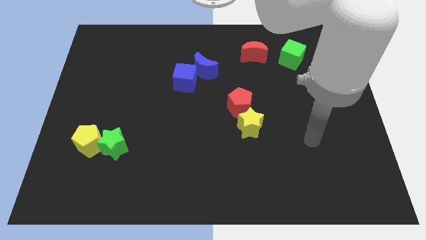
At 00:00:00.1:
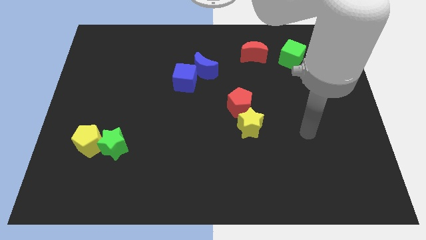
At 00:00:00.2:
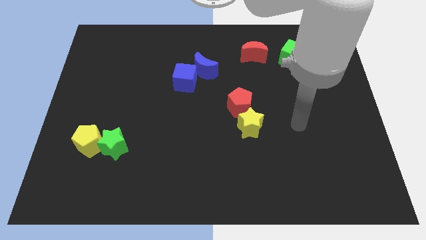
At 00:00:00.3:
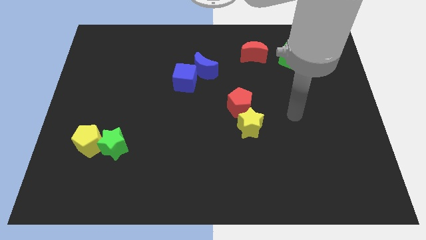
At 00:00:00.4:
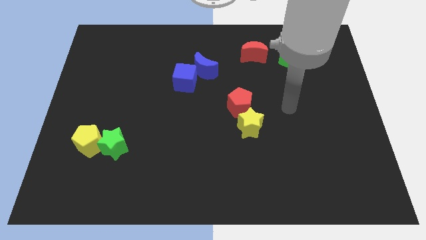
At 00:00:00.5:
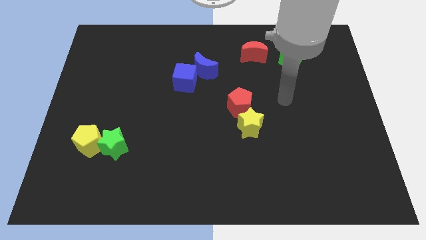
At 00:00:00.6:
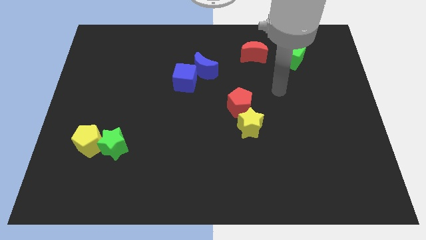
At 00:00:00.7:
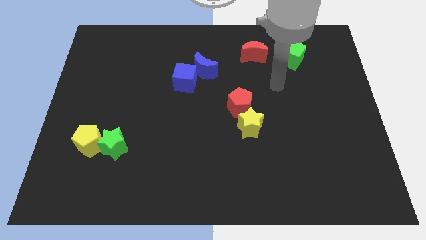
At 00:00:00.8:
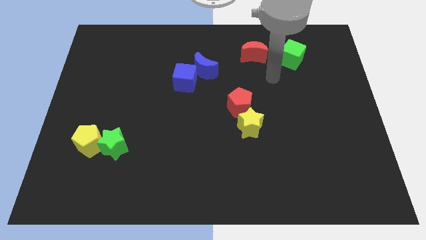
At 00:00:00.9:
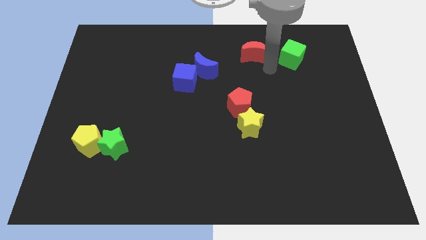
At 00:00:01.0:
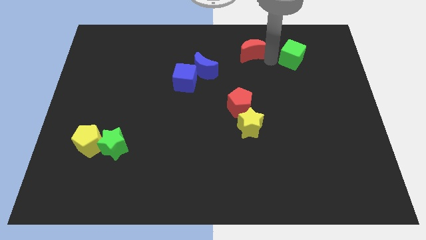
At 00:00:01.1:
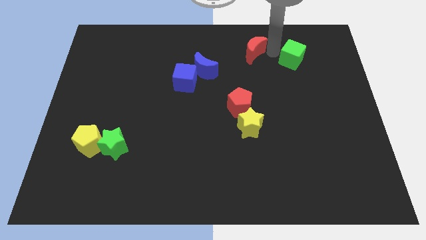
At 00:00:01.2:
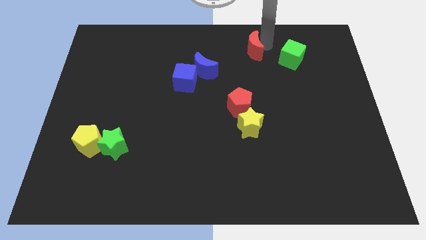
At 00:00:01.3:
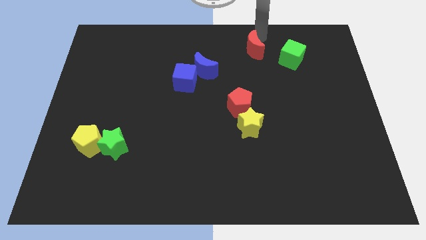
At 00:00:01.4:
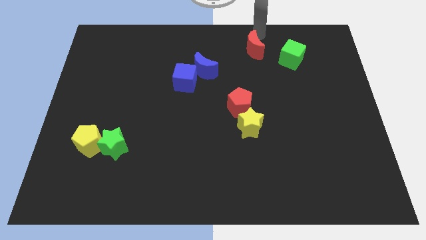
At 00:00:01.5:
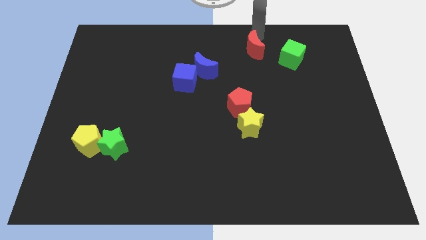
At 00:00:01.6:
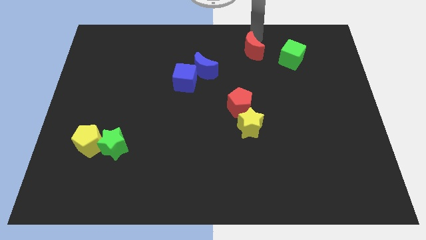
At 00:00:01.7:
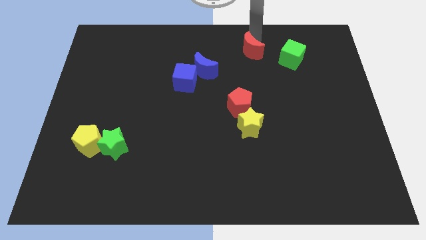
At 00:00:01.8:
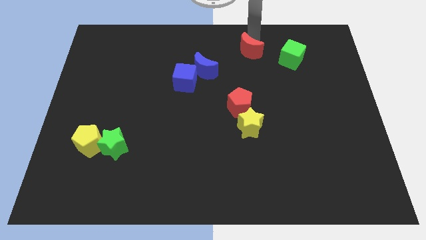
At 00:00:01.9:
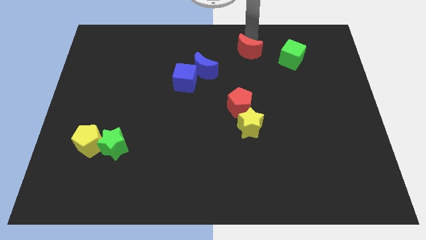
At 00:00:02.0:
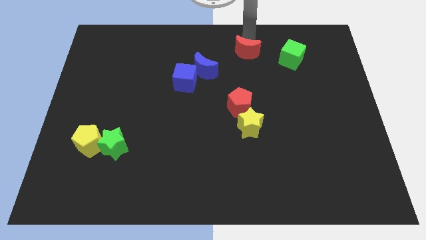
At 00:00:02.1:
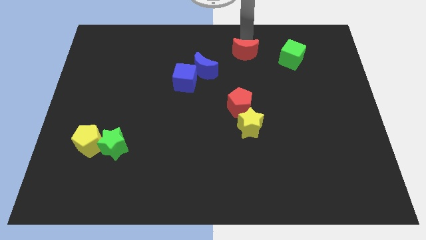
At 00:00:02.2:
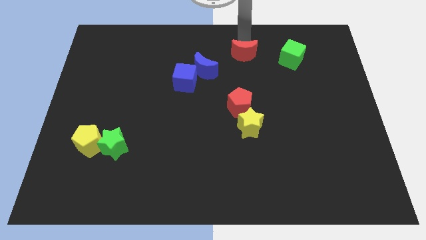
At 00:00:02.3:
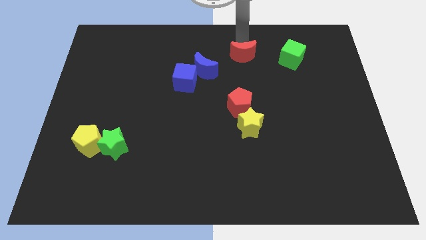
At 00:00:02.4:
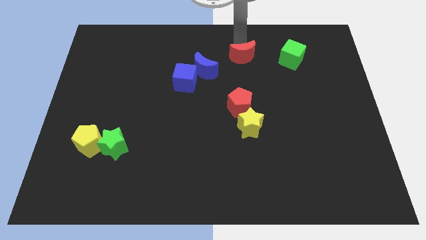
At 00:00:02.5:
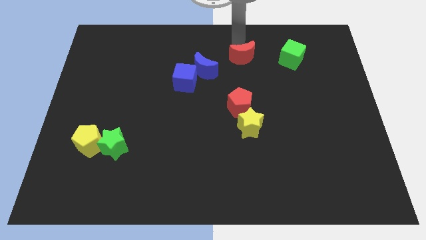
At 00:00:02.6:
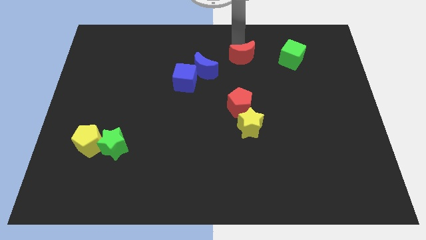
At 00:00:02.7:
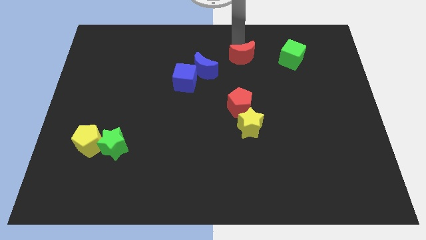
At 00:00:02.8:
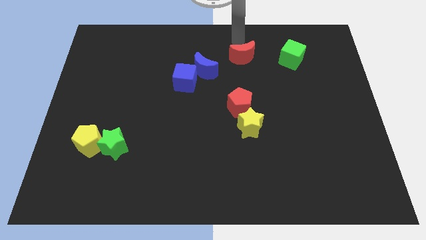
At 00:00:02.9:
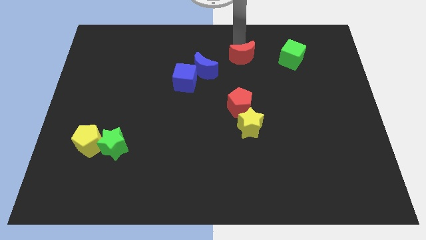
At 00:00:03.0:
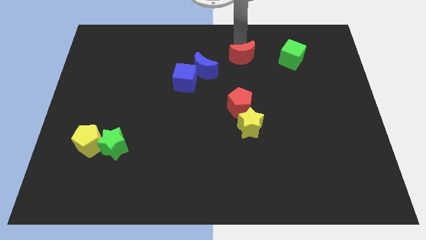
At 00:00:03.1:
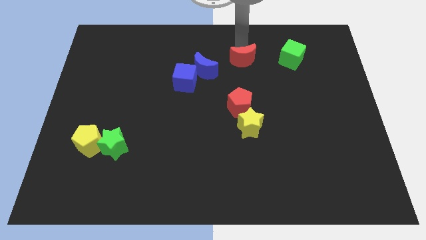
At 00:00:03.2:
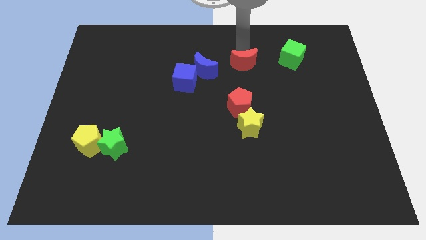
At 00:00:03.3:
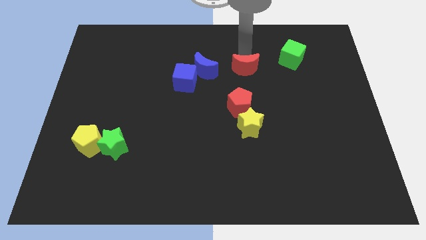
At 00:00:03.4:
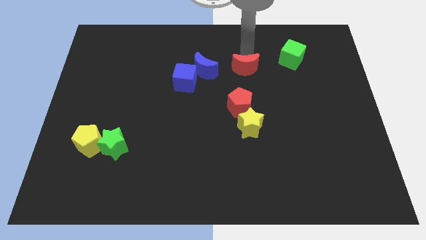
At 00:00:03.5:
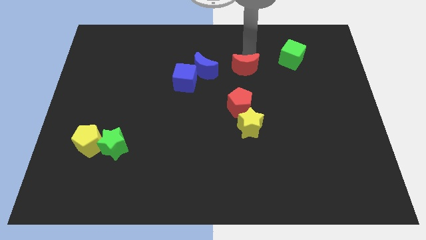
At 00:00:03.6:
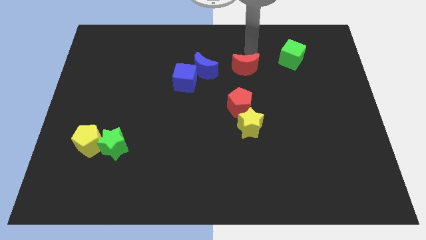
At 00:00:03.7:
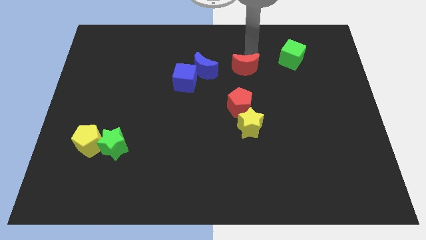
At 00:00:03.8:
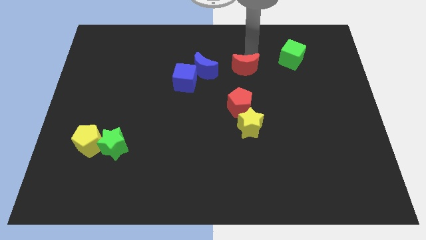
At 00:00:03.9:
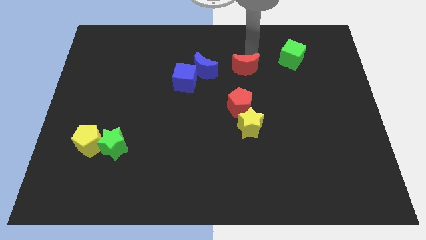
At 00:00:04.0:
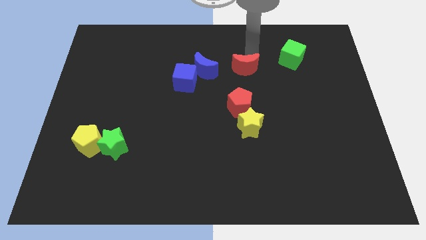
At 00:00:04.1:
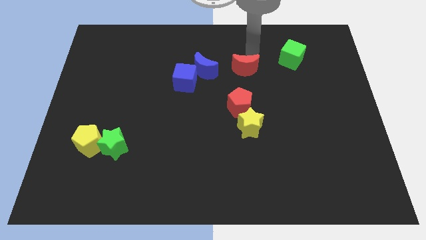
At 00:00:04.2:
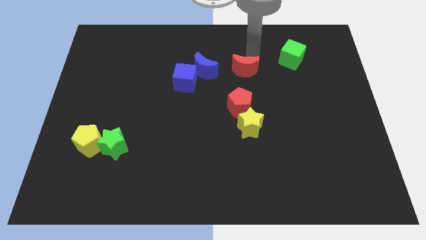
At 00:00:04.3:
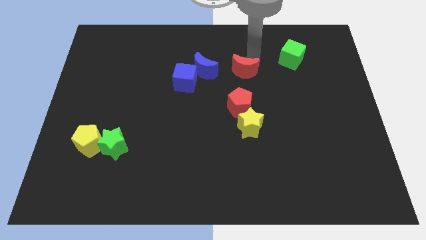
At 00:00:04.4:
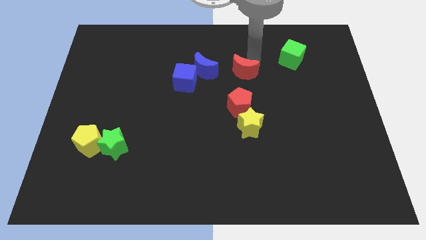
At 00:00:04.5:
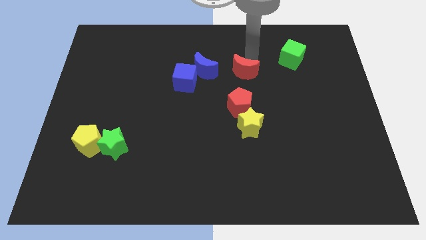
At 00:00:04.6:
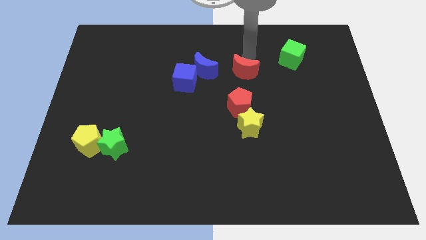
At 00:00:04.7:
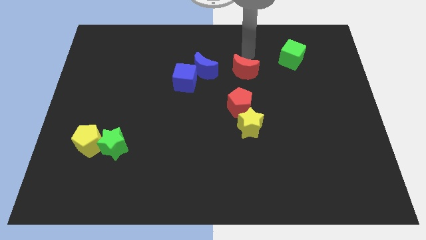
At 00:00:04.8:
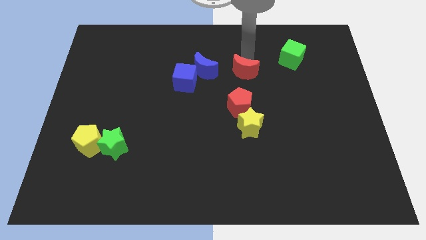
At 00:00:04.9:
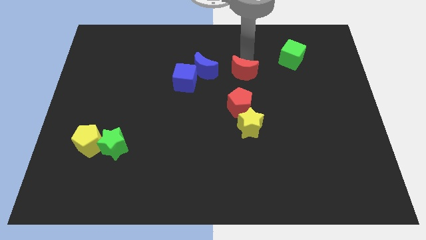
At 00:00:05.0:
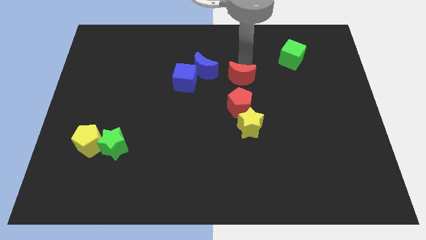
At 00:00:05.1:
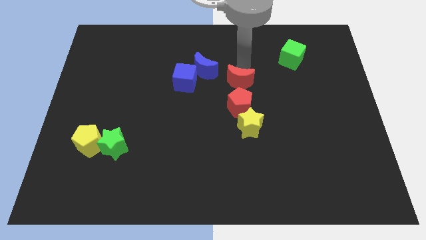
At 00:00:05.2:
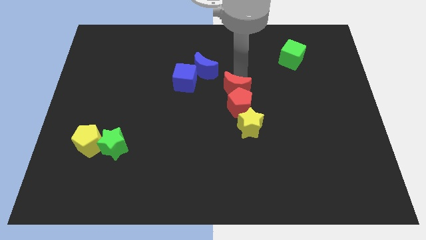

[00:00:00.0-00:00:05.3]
slide the red moon to the red pentagon

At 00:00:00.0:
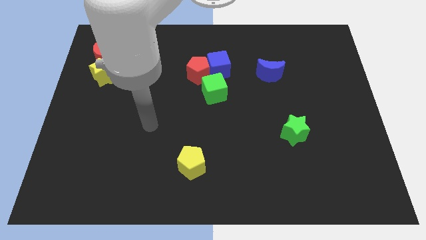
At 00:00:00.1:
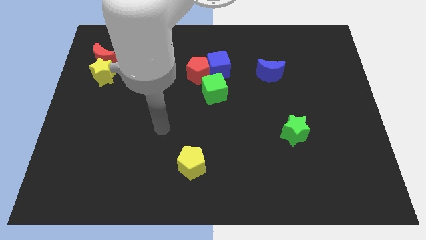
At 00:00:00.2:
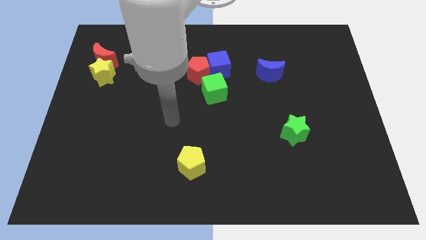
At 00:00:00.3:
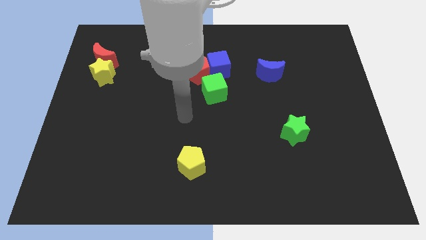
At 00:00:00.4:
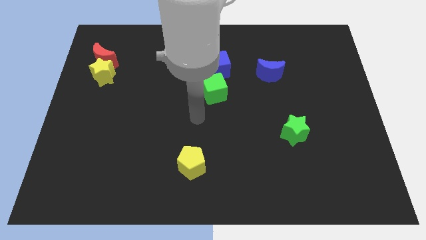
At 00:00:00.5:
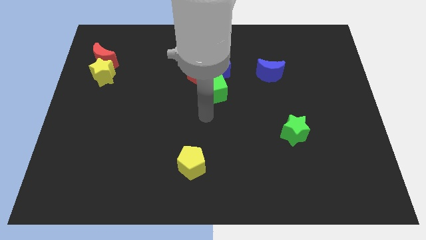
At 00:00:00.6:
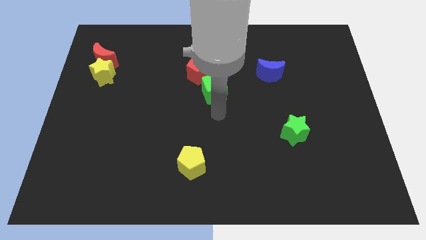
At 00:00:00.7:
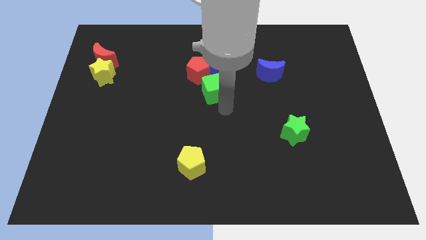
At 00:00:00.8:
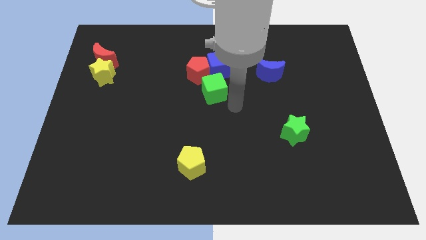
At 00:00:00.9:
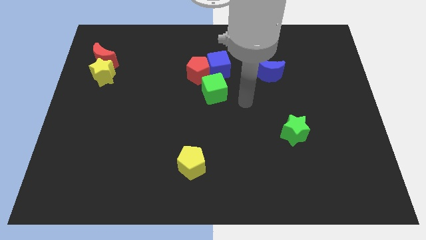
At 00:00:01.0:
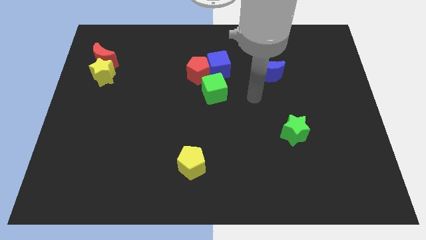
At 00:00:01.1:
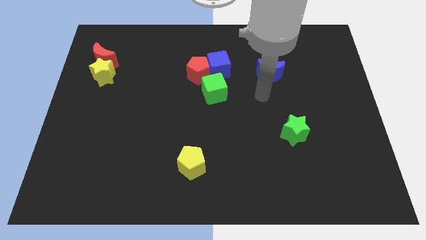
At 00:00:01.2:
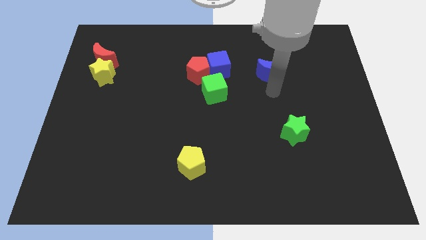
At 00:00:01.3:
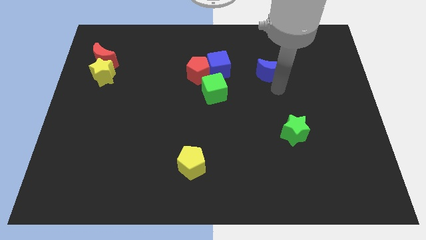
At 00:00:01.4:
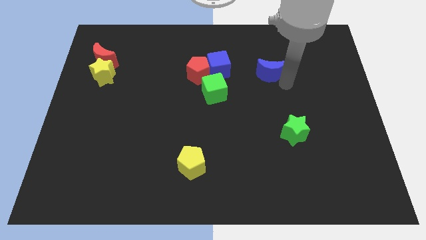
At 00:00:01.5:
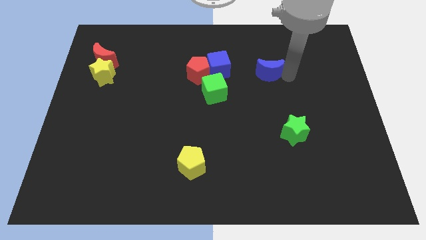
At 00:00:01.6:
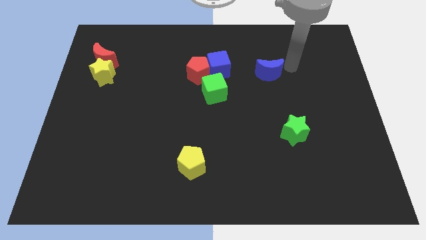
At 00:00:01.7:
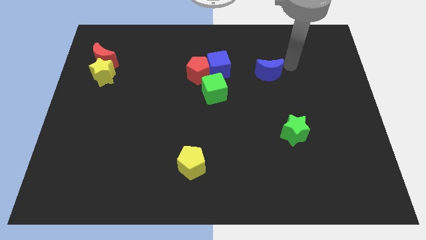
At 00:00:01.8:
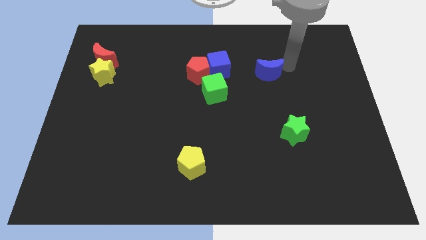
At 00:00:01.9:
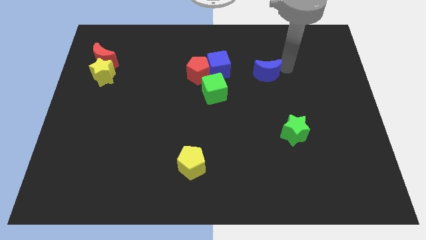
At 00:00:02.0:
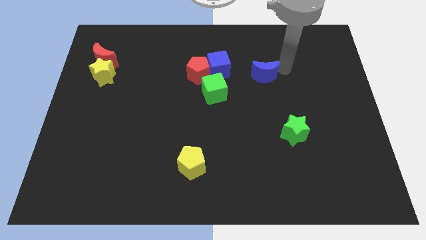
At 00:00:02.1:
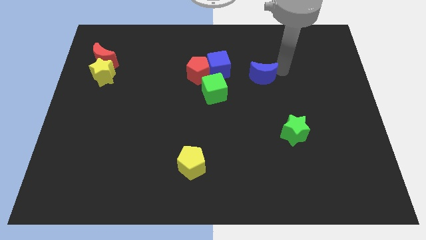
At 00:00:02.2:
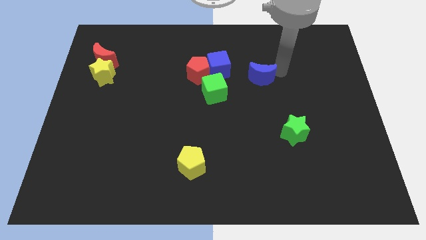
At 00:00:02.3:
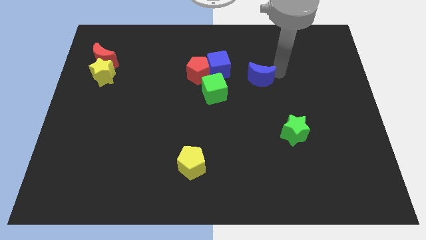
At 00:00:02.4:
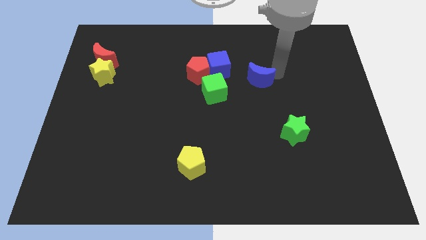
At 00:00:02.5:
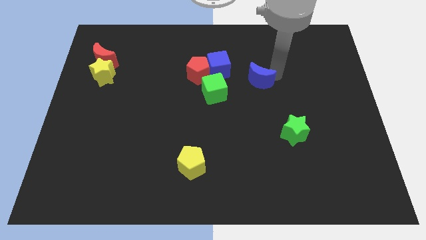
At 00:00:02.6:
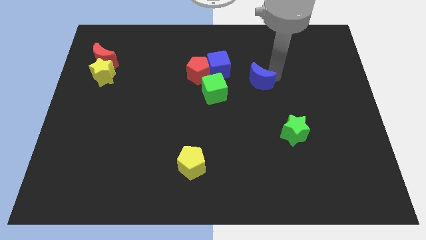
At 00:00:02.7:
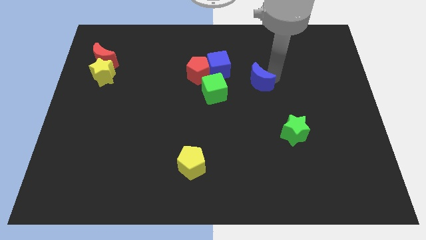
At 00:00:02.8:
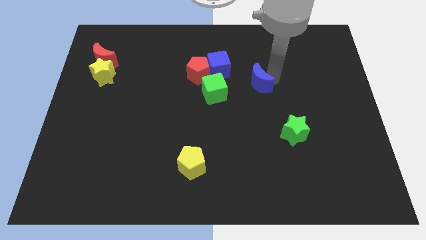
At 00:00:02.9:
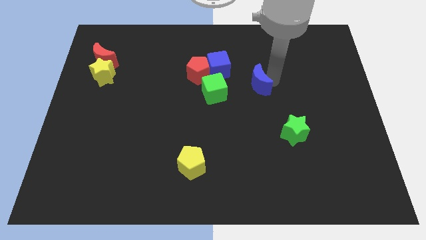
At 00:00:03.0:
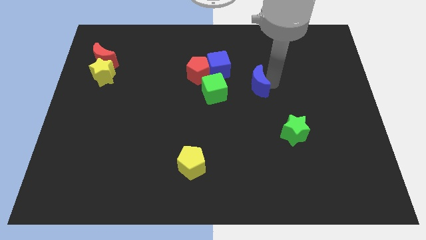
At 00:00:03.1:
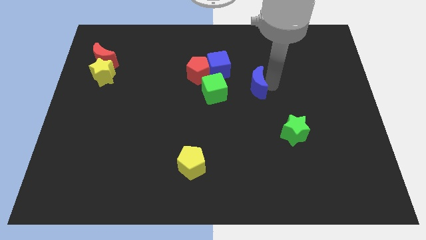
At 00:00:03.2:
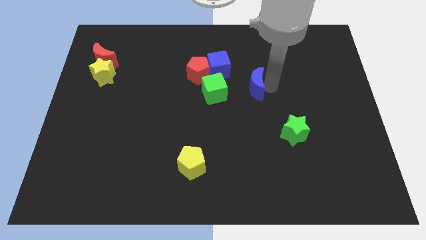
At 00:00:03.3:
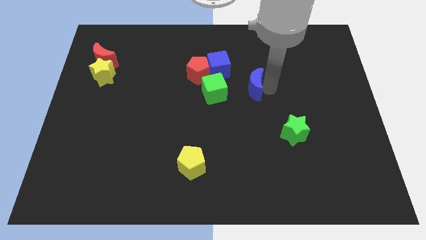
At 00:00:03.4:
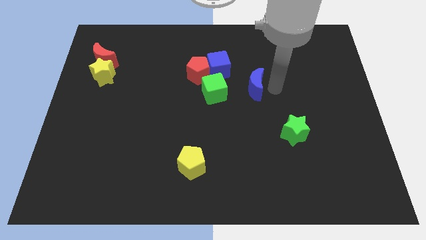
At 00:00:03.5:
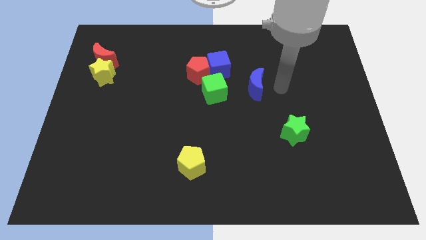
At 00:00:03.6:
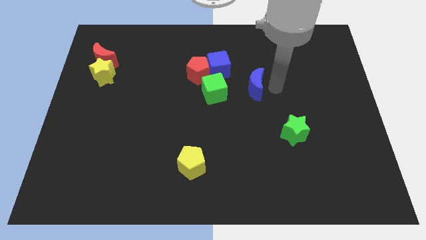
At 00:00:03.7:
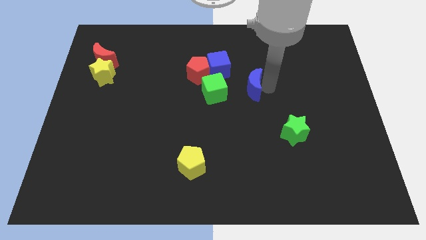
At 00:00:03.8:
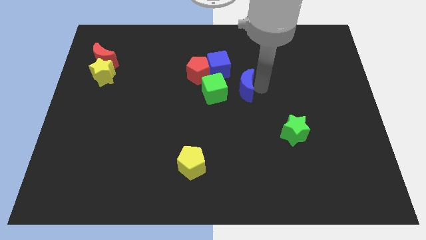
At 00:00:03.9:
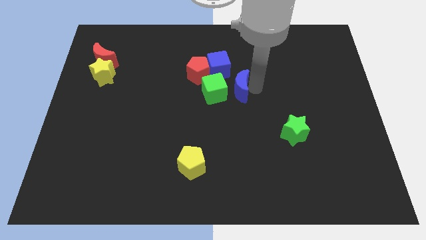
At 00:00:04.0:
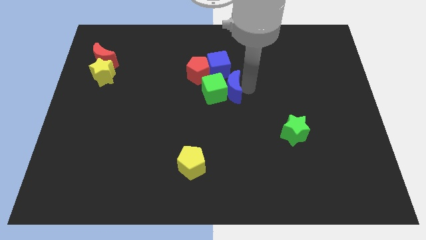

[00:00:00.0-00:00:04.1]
move the blue moon close to the green cube
